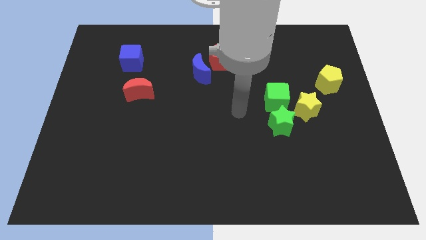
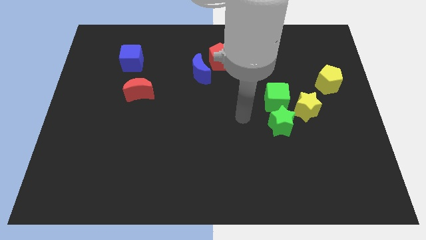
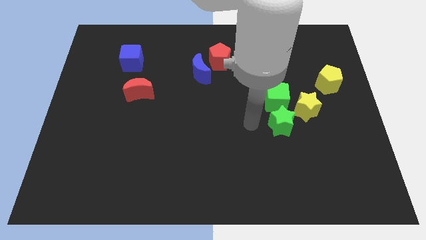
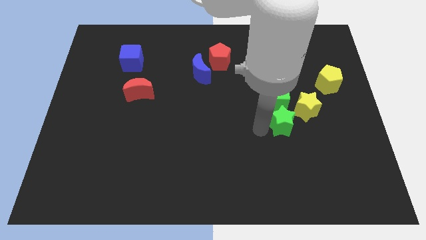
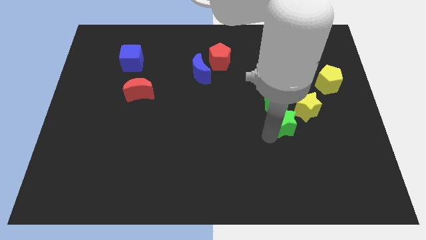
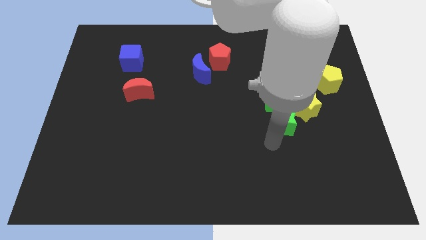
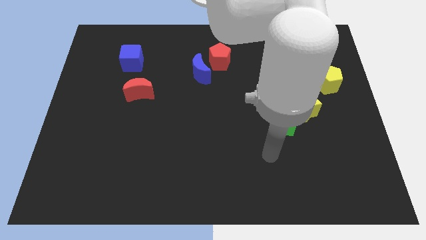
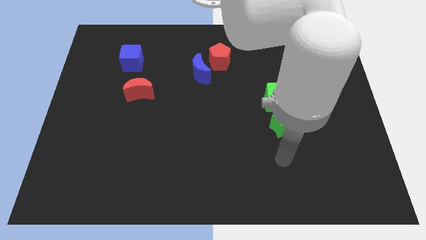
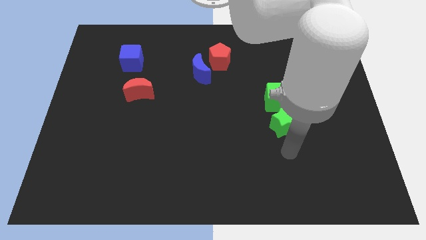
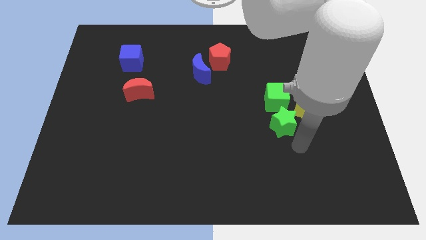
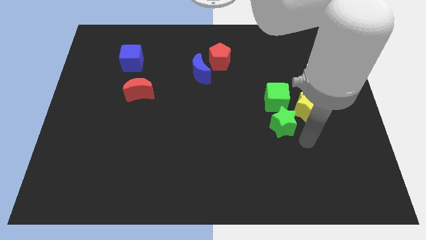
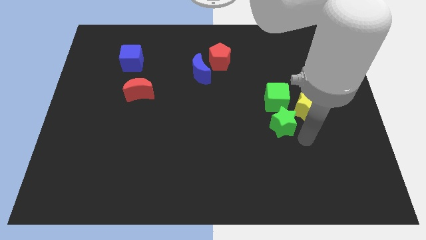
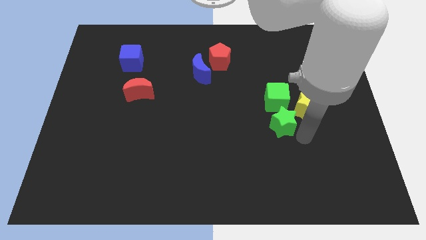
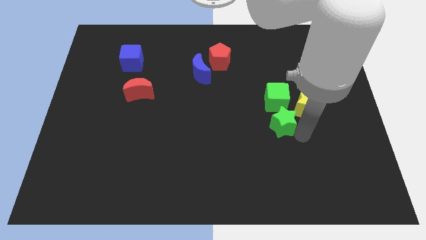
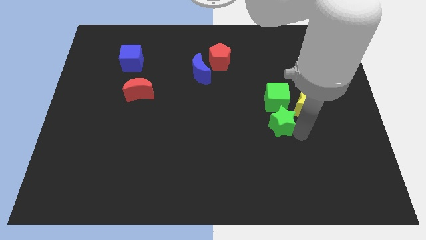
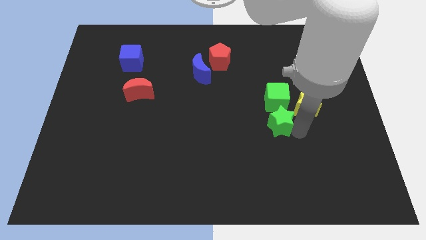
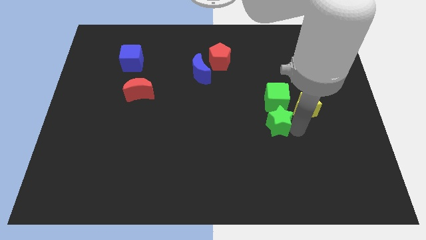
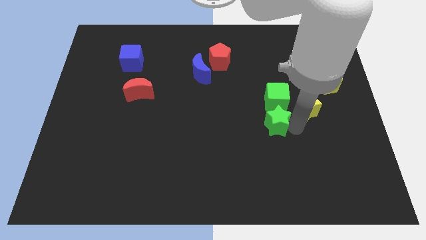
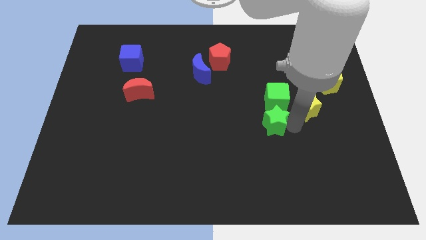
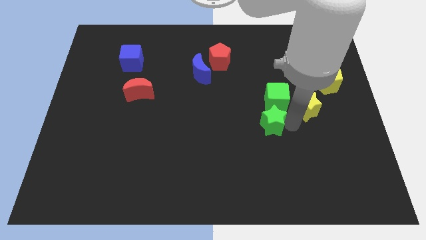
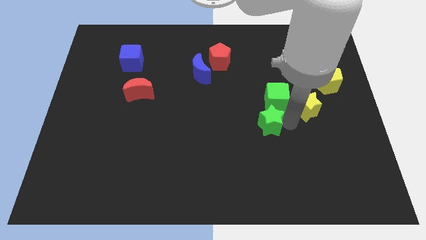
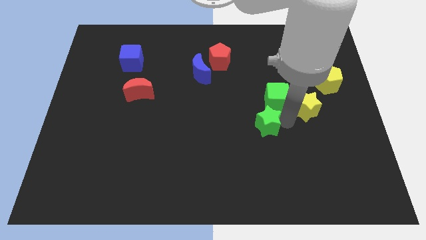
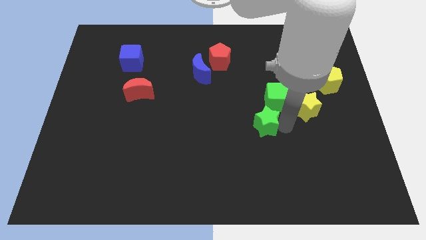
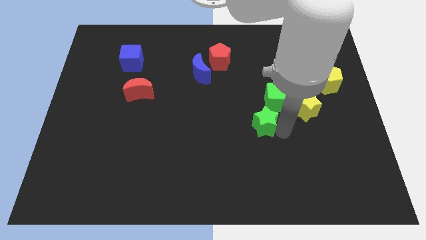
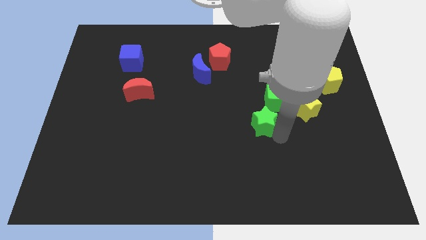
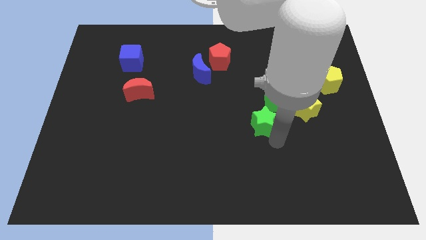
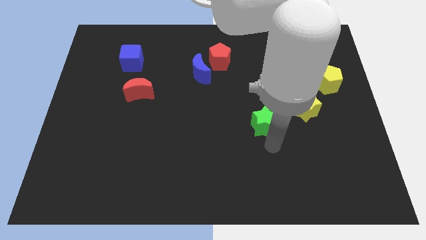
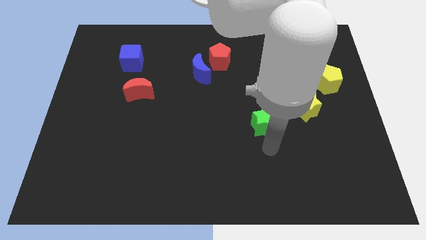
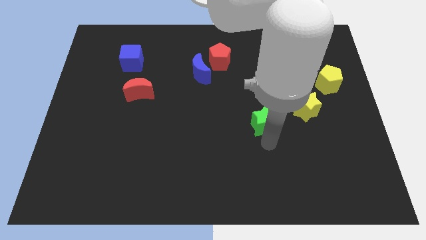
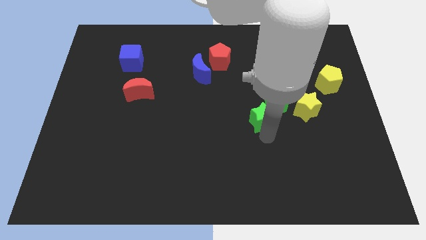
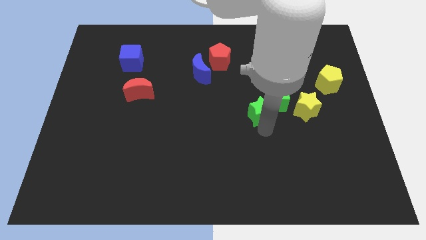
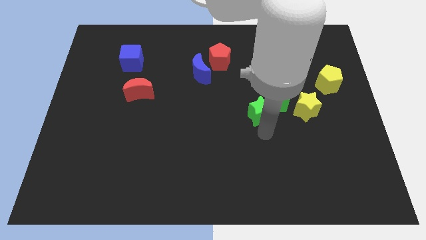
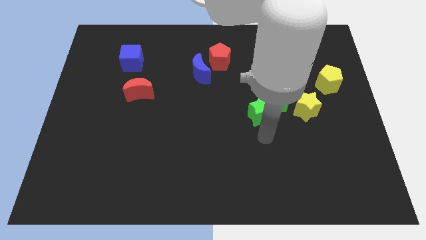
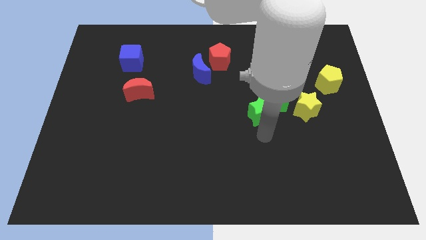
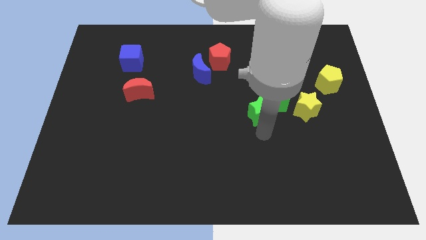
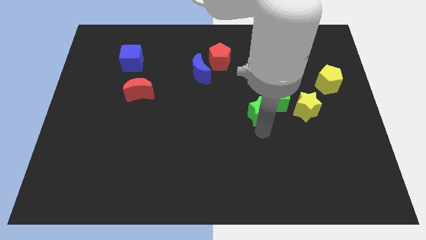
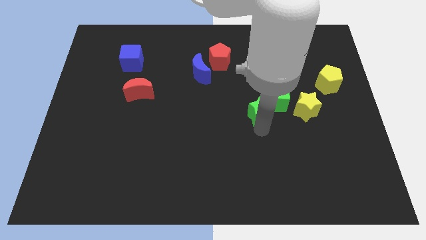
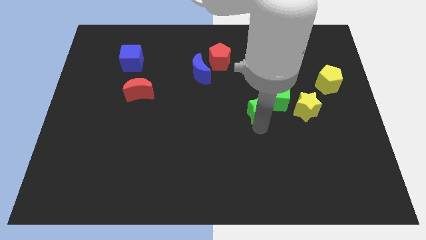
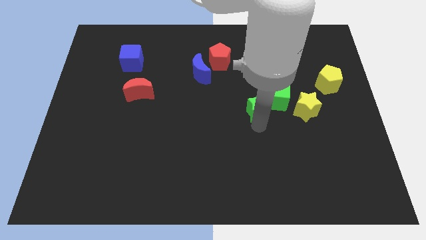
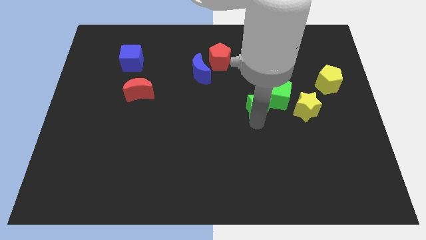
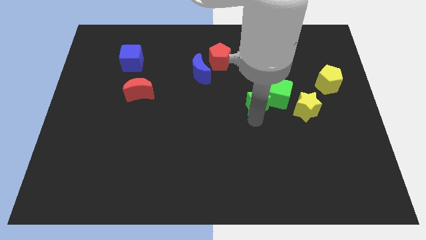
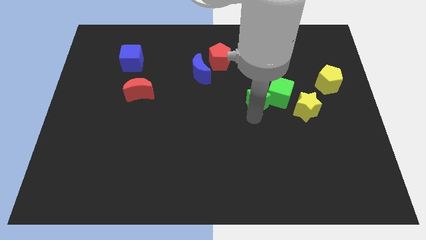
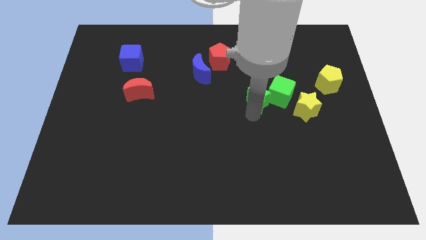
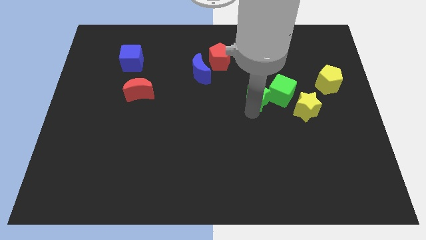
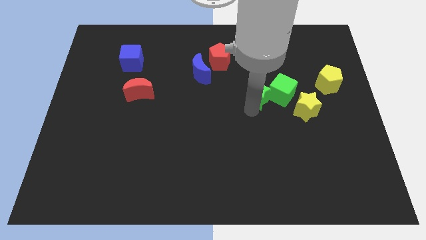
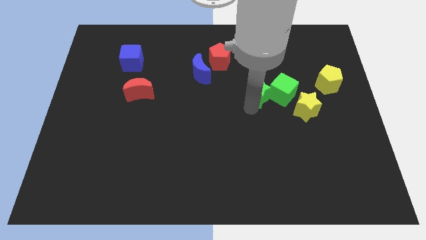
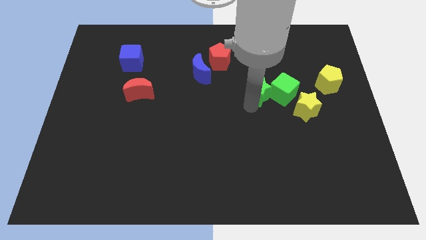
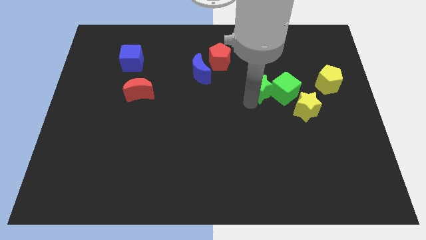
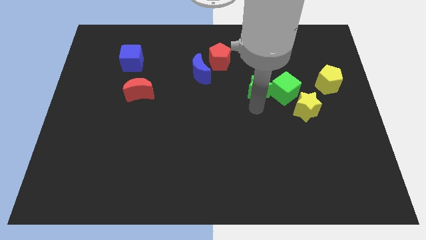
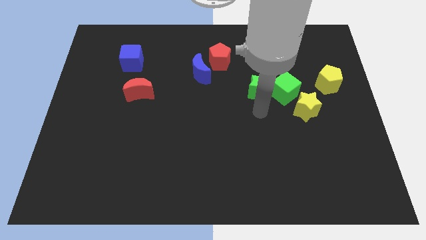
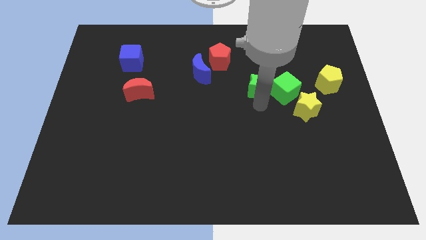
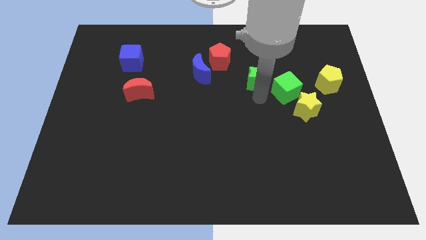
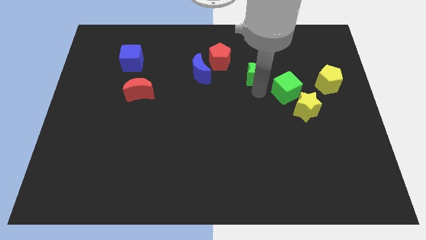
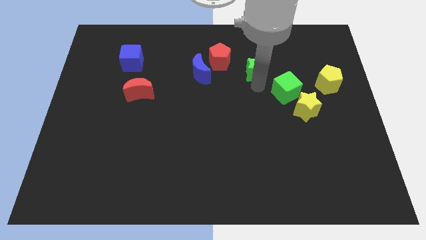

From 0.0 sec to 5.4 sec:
push the green star just right of the red pentagon

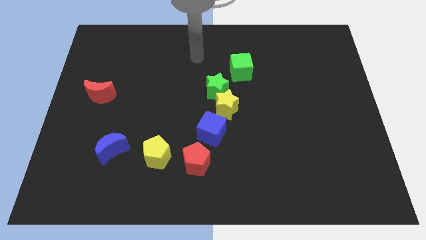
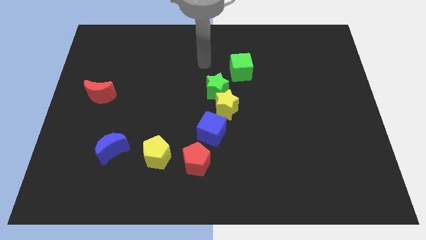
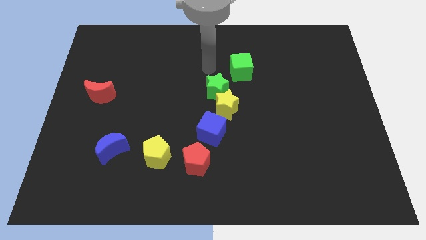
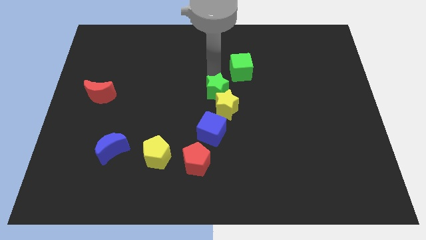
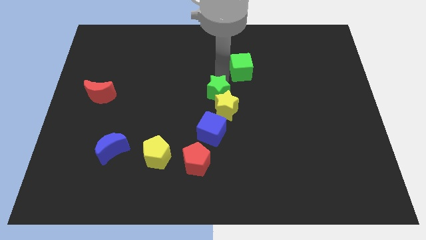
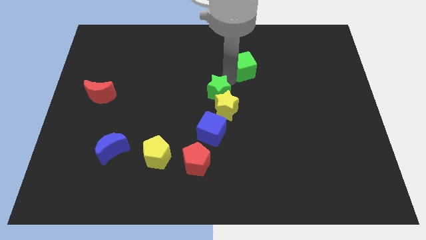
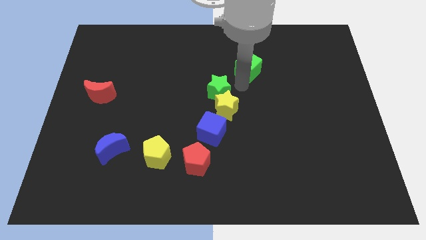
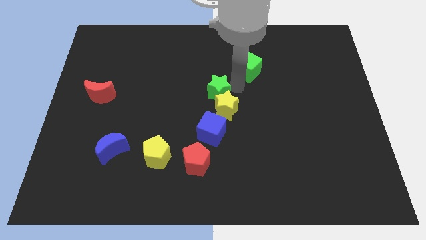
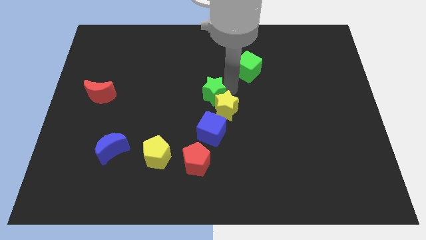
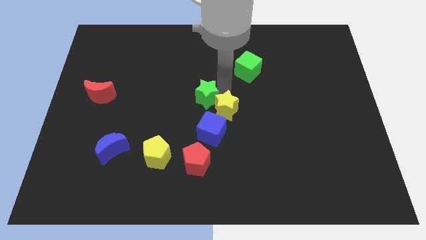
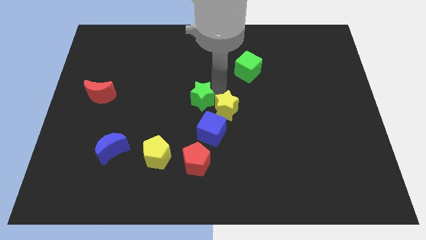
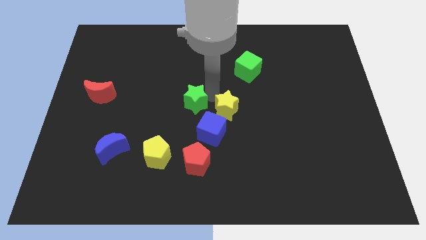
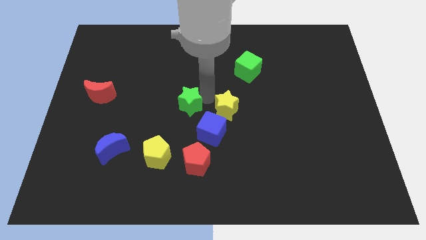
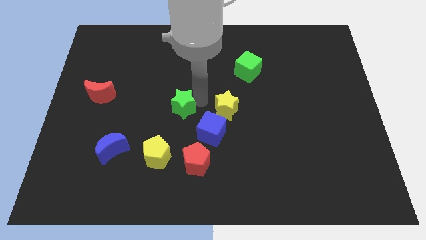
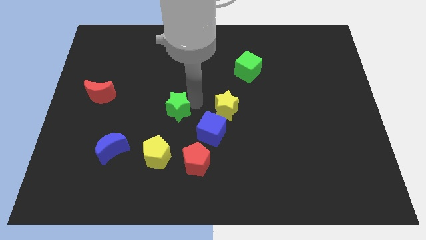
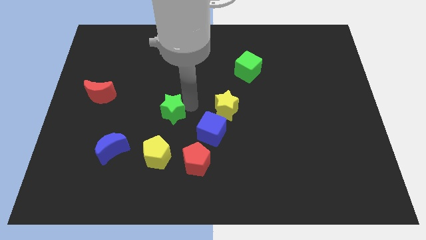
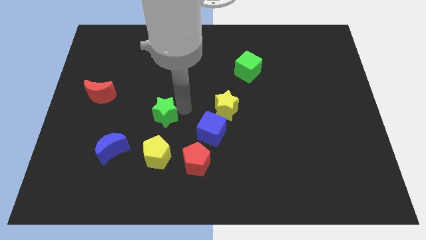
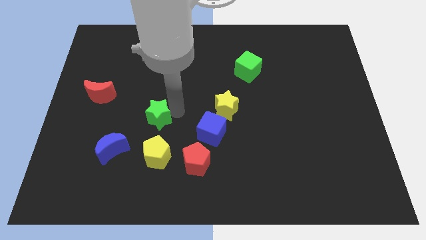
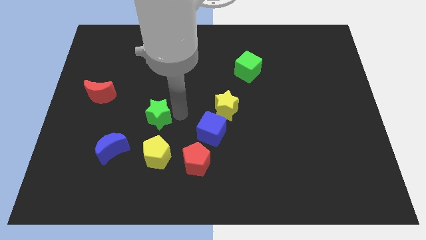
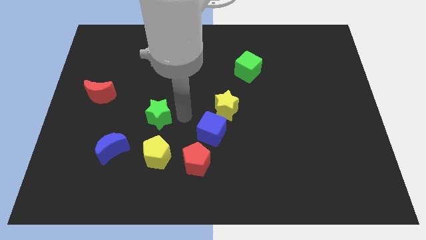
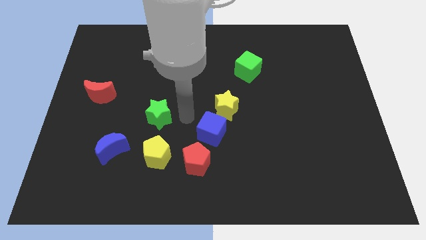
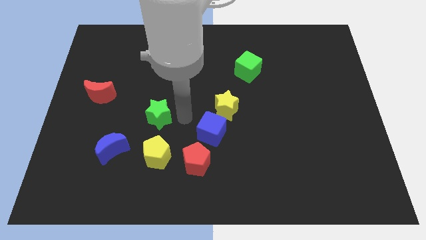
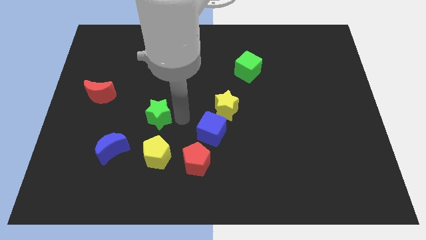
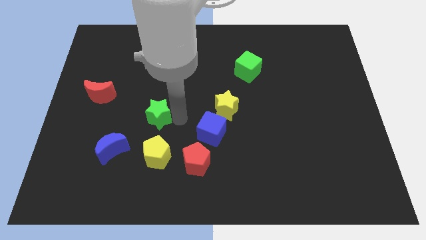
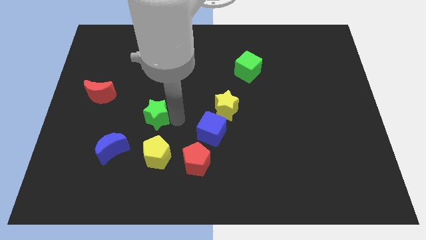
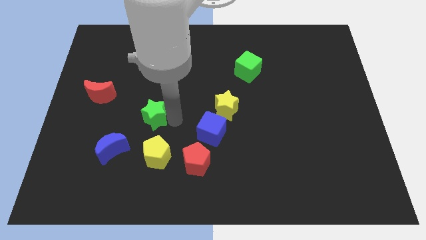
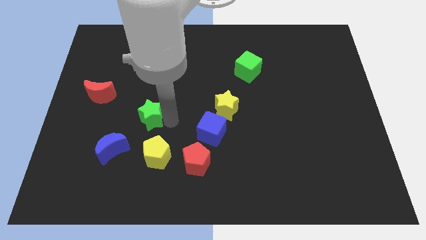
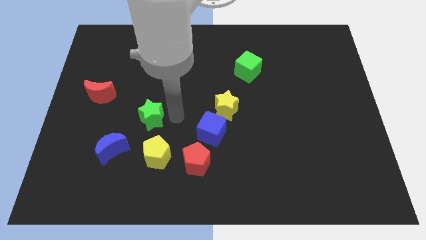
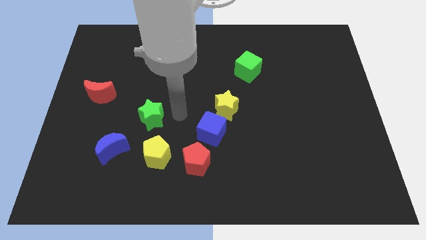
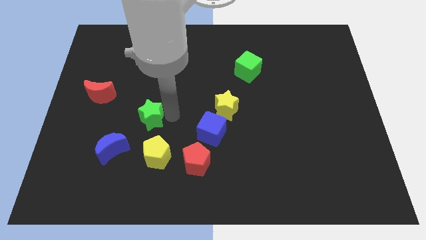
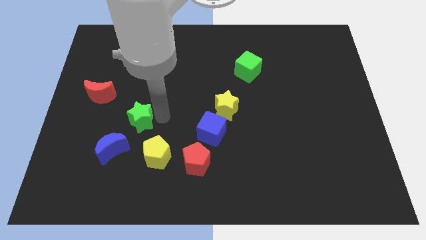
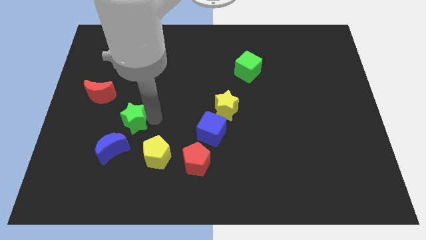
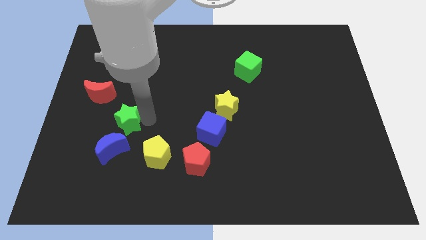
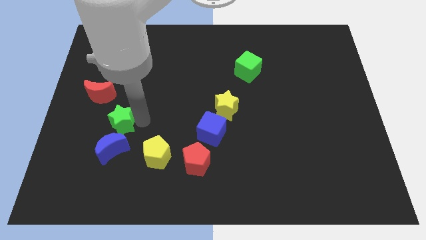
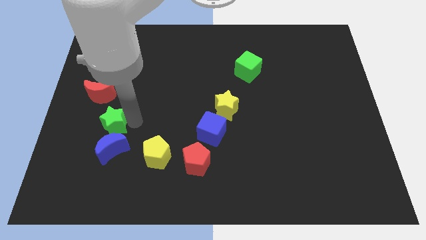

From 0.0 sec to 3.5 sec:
put the green star below the red moon
